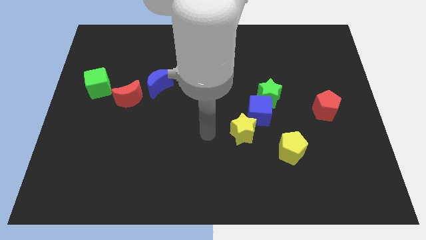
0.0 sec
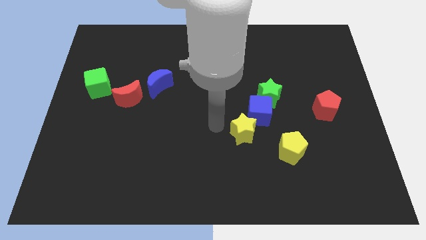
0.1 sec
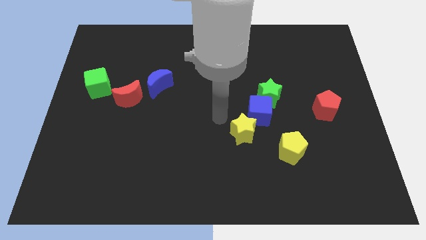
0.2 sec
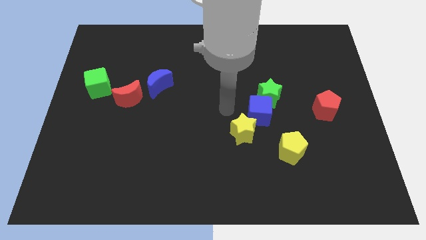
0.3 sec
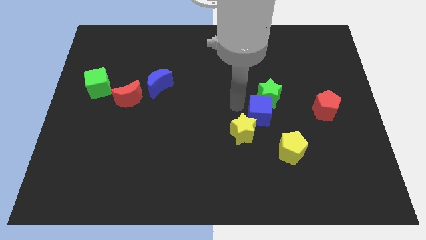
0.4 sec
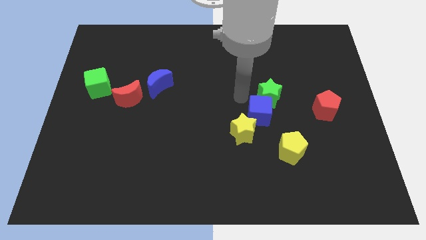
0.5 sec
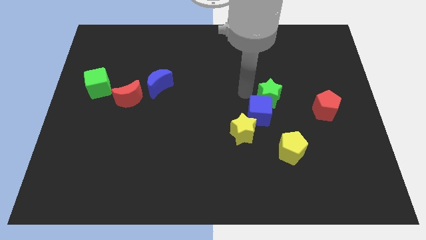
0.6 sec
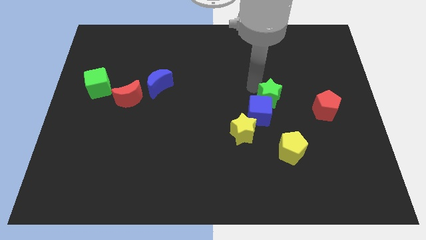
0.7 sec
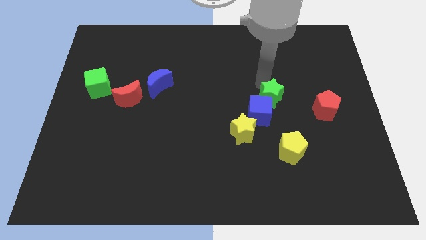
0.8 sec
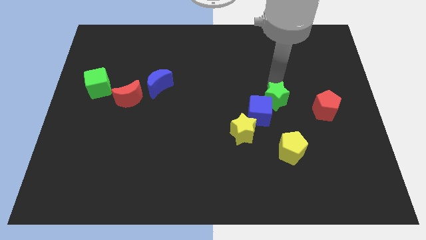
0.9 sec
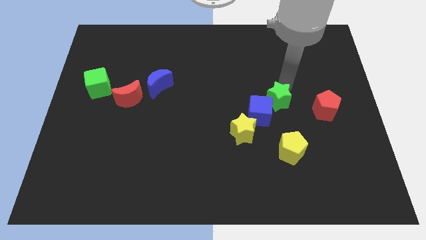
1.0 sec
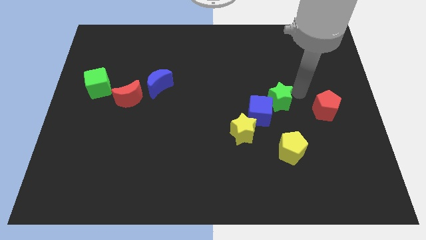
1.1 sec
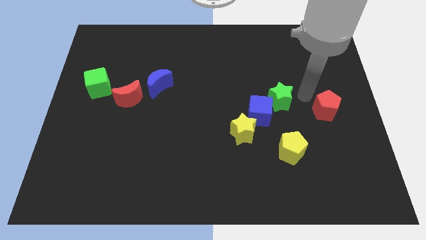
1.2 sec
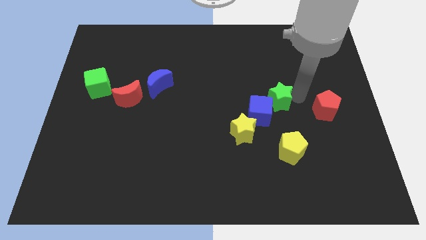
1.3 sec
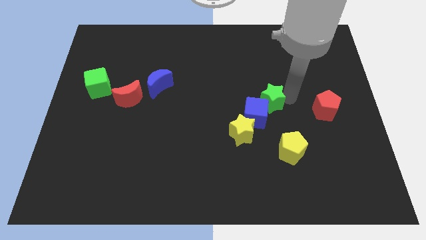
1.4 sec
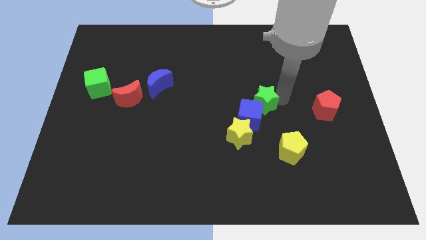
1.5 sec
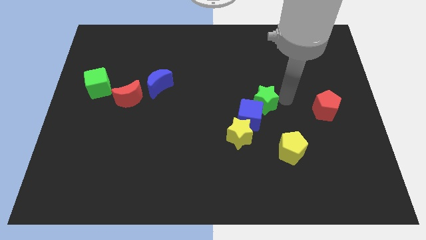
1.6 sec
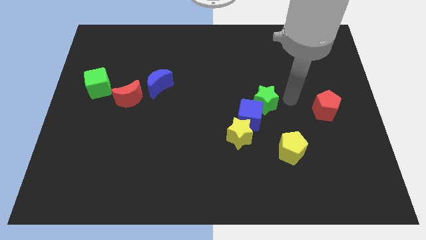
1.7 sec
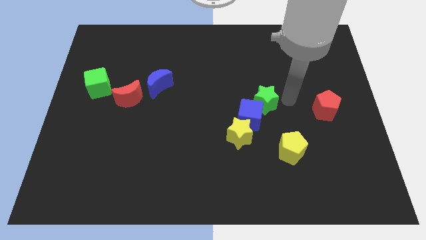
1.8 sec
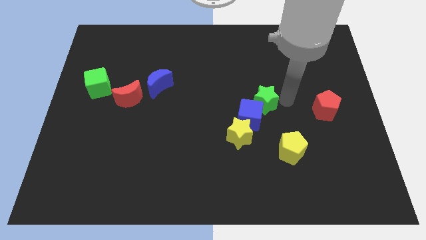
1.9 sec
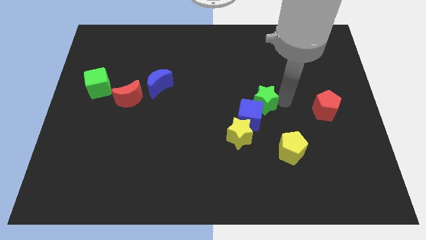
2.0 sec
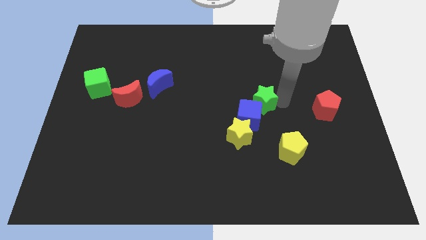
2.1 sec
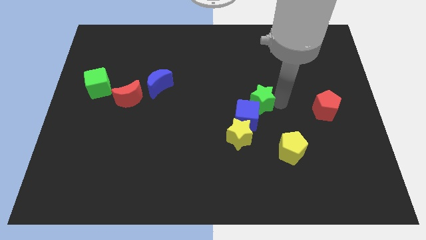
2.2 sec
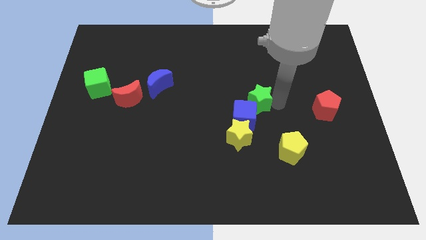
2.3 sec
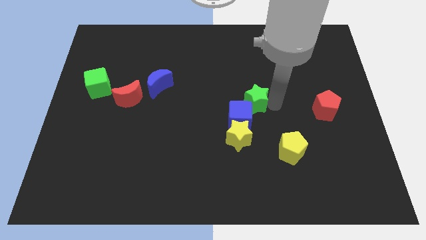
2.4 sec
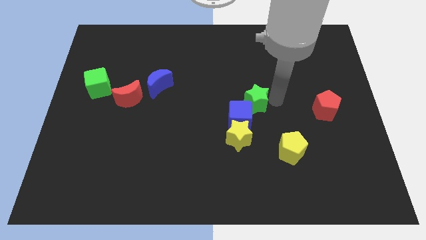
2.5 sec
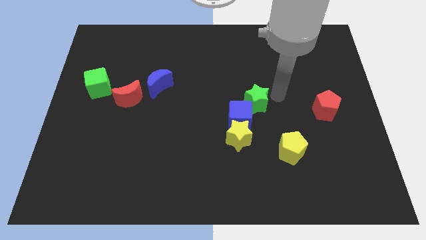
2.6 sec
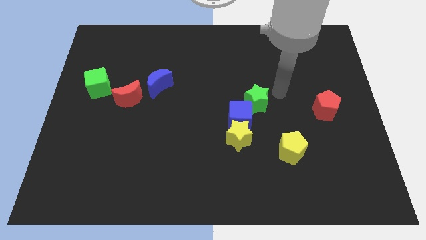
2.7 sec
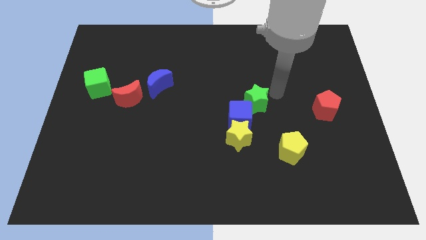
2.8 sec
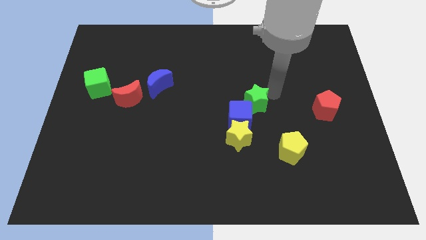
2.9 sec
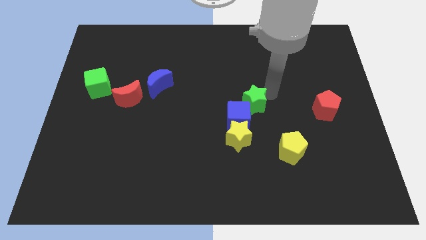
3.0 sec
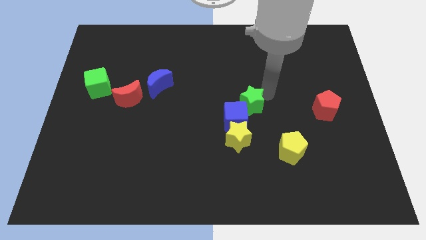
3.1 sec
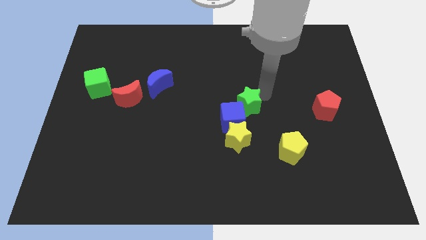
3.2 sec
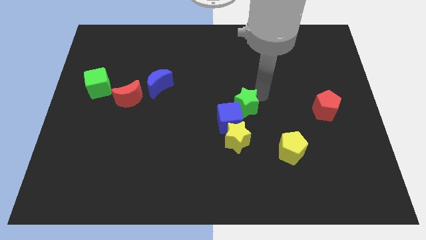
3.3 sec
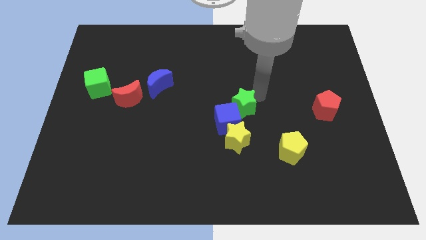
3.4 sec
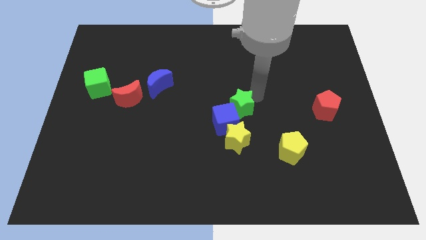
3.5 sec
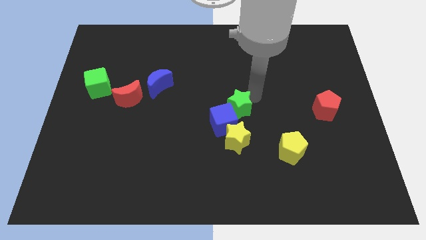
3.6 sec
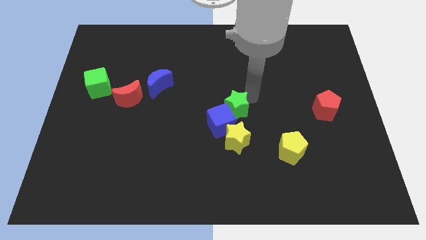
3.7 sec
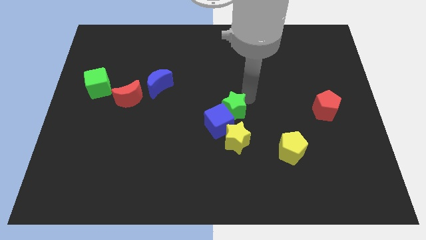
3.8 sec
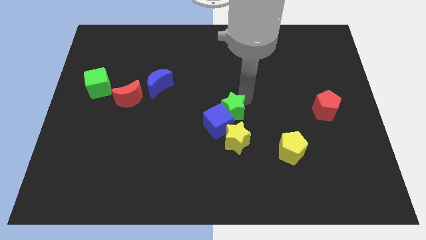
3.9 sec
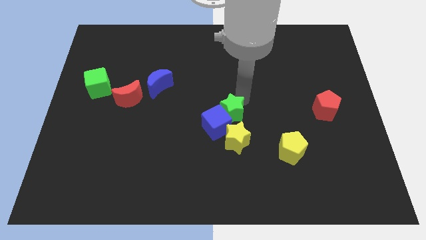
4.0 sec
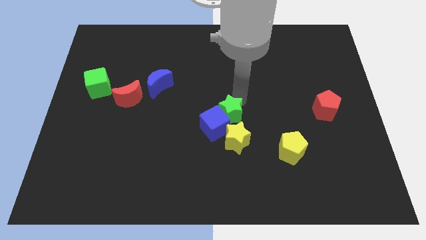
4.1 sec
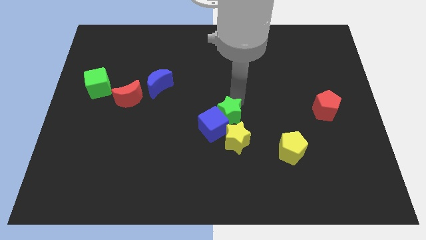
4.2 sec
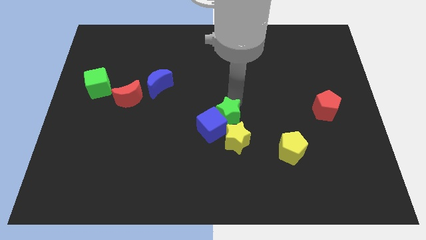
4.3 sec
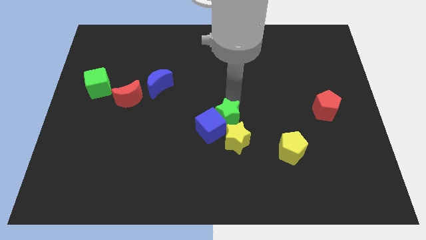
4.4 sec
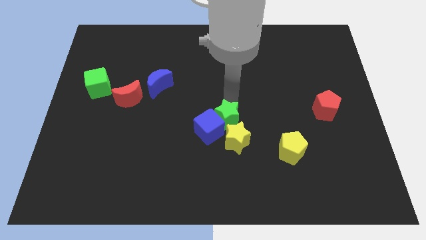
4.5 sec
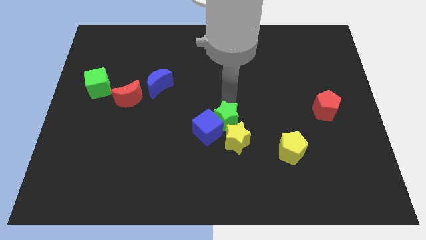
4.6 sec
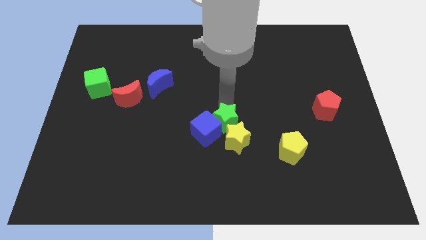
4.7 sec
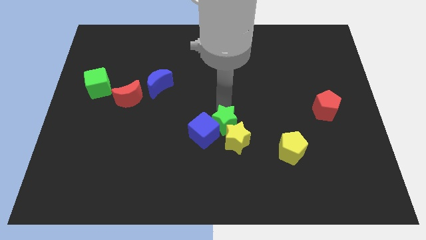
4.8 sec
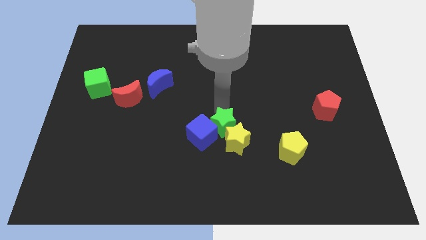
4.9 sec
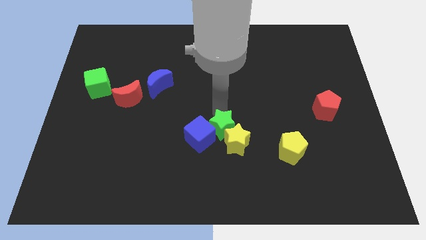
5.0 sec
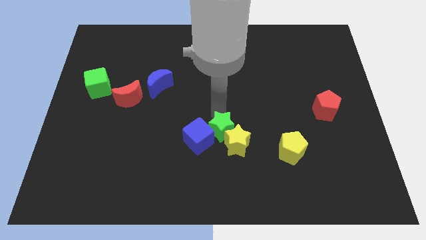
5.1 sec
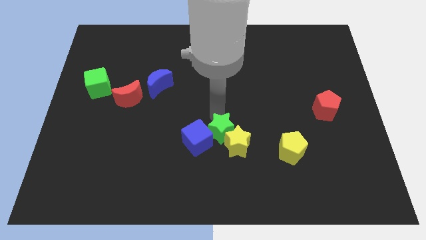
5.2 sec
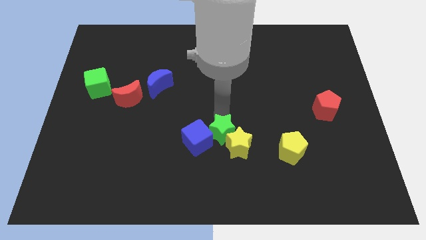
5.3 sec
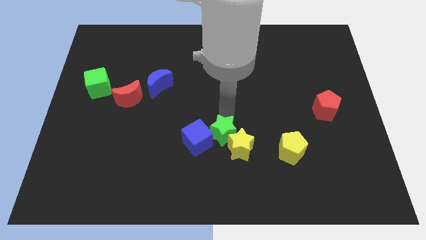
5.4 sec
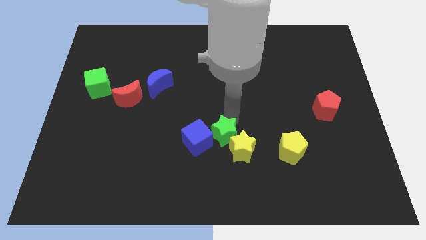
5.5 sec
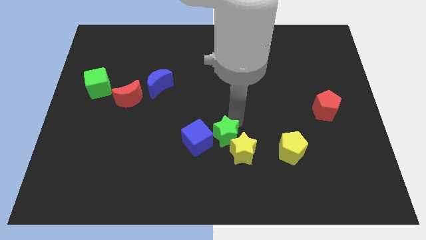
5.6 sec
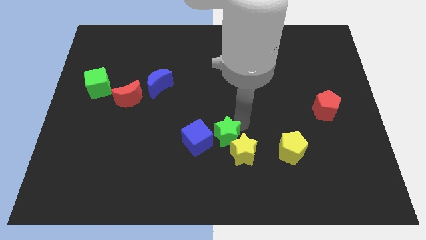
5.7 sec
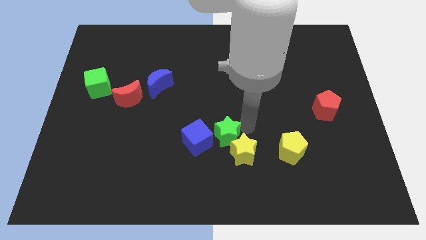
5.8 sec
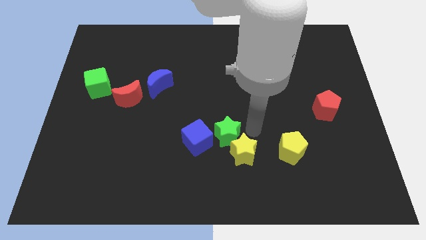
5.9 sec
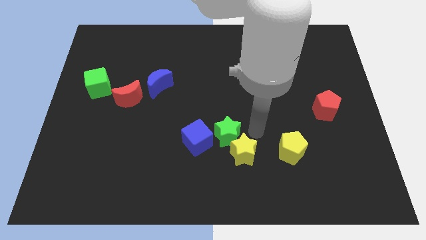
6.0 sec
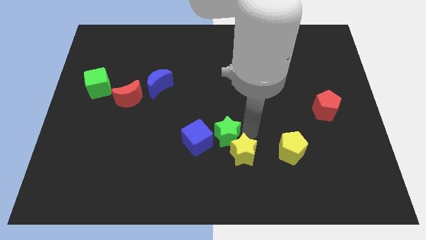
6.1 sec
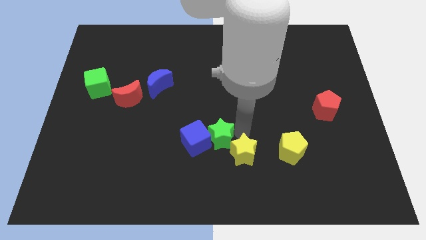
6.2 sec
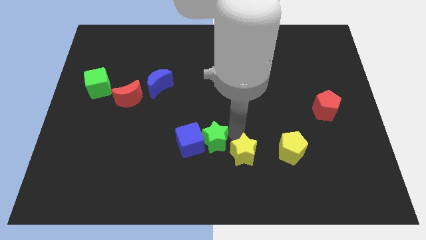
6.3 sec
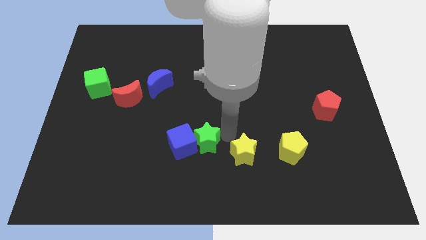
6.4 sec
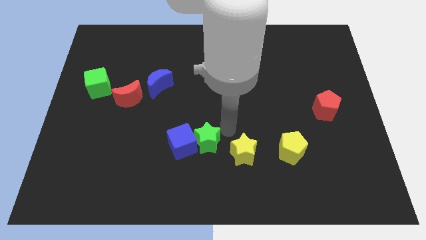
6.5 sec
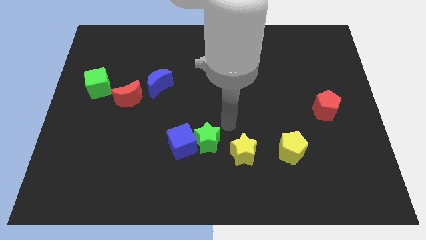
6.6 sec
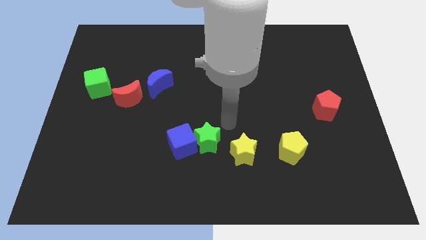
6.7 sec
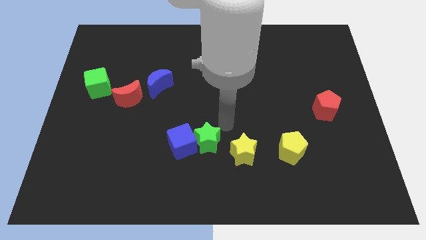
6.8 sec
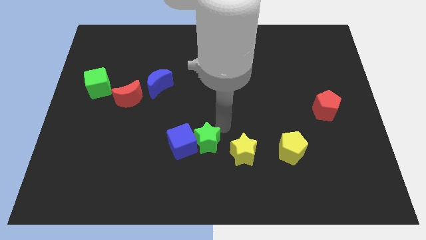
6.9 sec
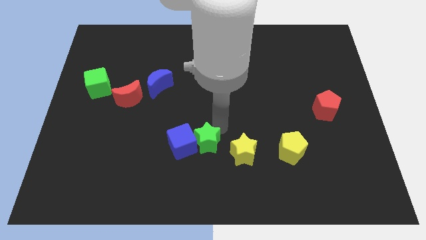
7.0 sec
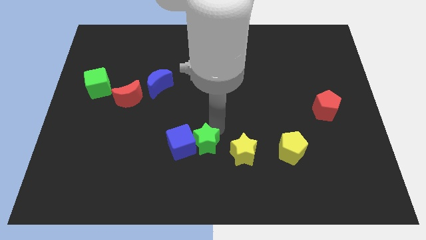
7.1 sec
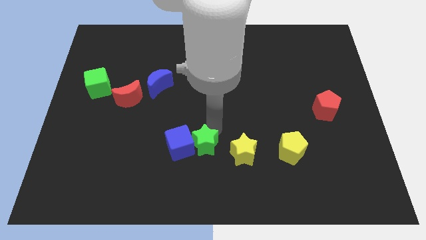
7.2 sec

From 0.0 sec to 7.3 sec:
push the green star downwards and then to the left

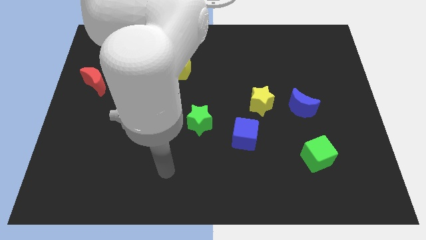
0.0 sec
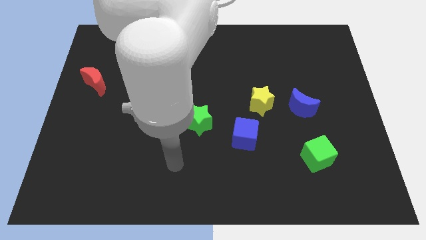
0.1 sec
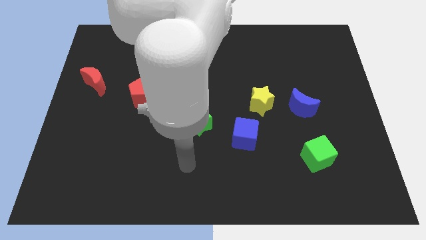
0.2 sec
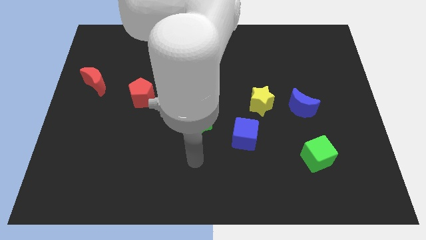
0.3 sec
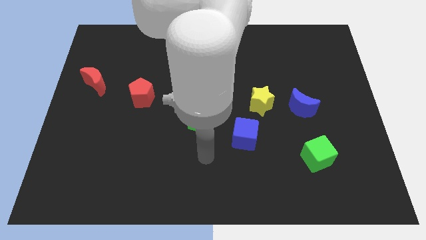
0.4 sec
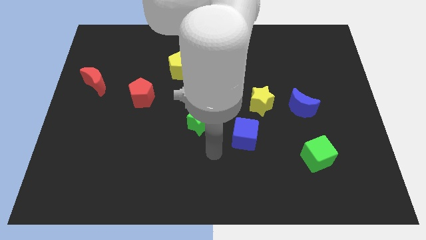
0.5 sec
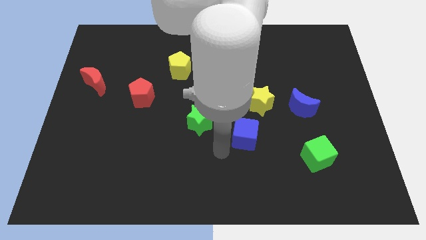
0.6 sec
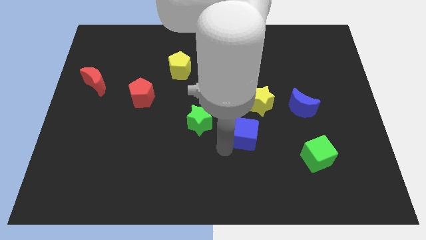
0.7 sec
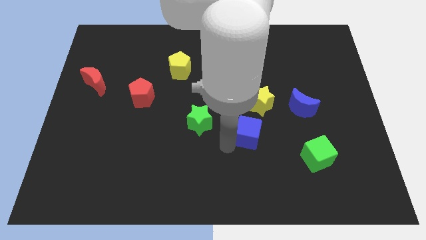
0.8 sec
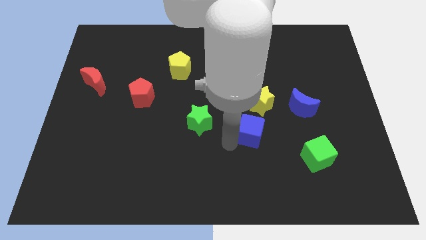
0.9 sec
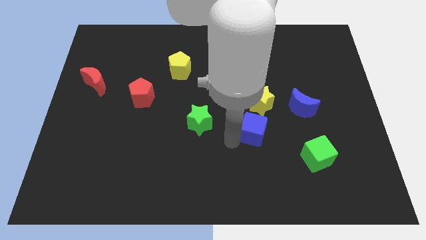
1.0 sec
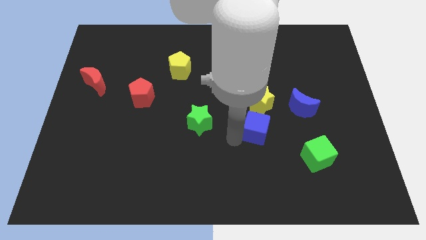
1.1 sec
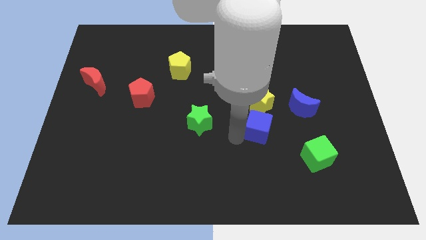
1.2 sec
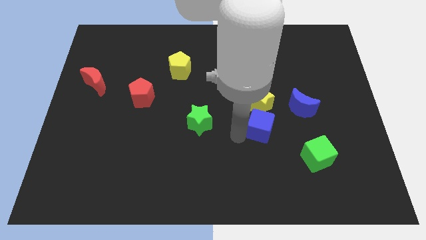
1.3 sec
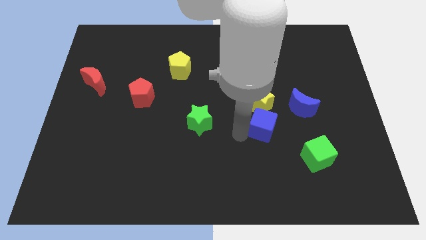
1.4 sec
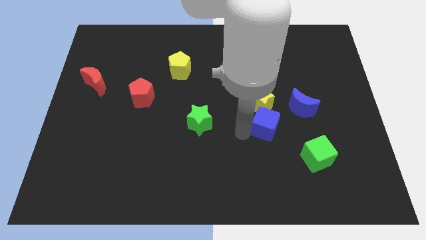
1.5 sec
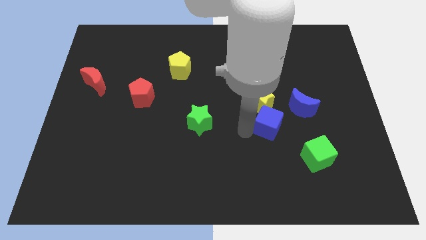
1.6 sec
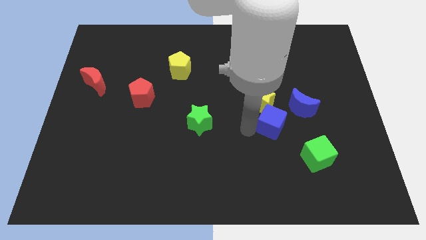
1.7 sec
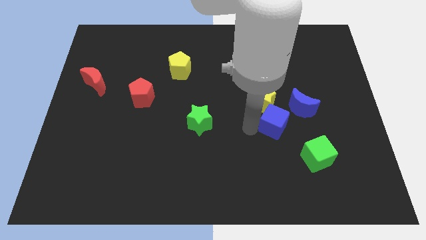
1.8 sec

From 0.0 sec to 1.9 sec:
push the blue cube up and right a little
